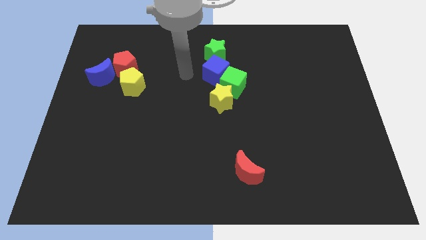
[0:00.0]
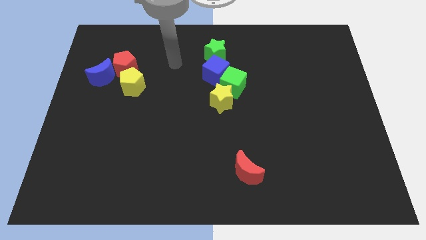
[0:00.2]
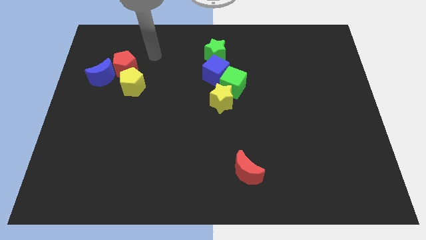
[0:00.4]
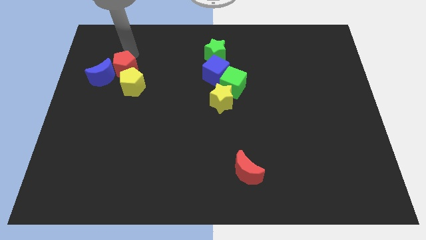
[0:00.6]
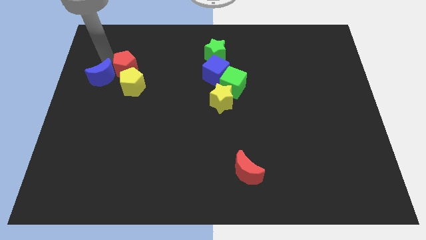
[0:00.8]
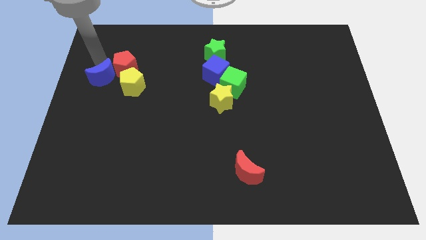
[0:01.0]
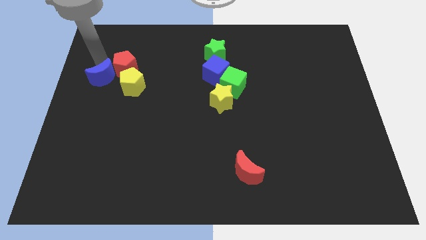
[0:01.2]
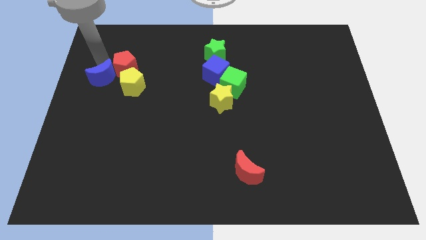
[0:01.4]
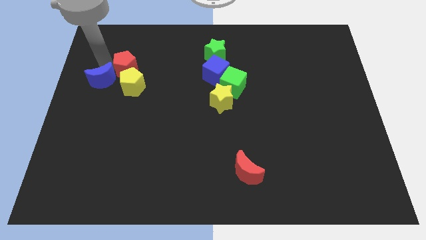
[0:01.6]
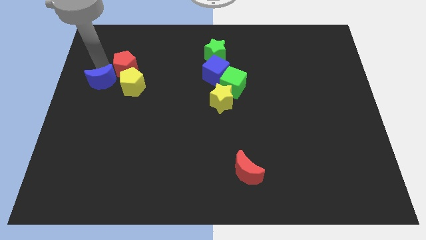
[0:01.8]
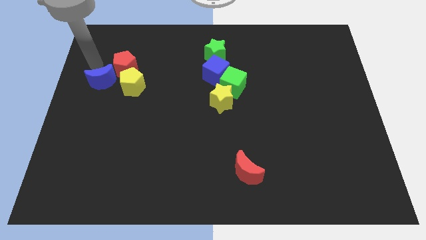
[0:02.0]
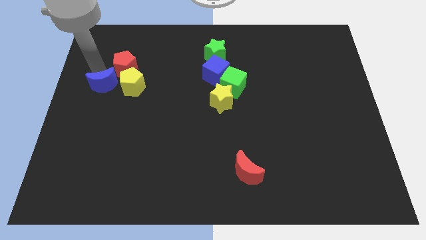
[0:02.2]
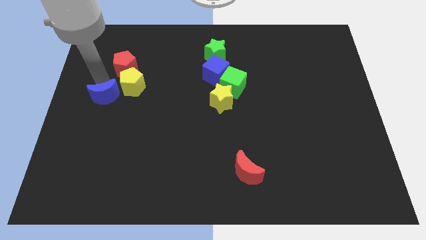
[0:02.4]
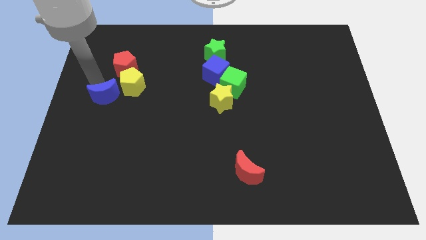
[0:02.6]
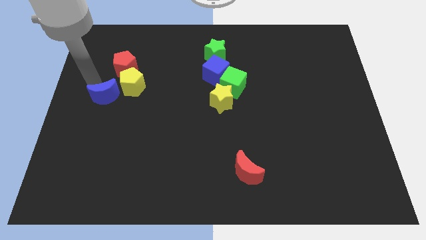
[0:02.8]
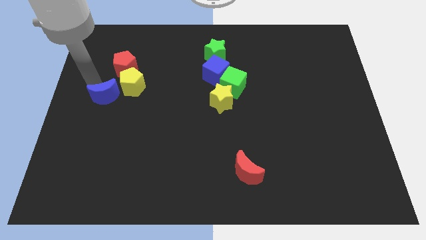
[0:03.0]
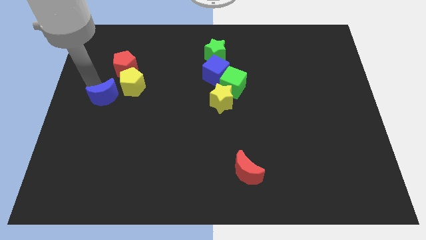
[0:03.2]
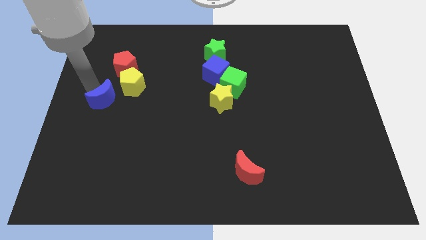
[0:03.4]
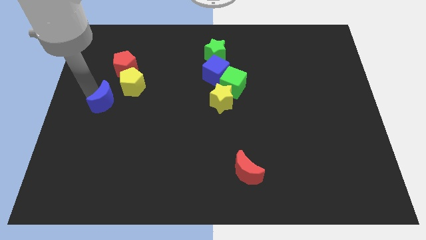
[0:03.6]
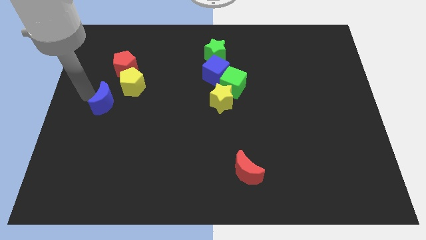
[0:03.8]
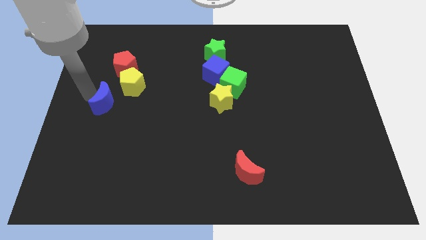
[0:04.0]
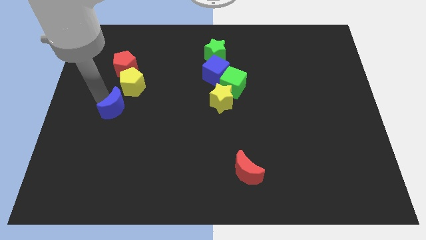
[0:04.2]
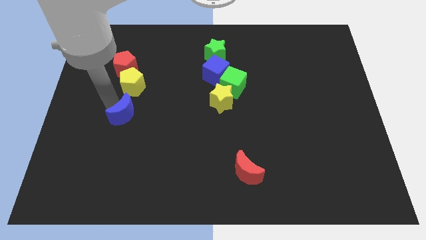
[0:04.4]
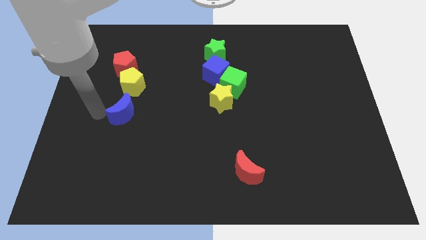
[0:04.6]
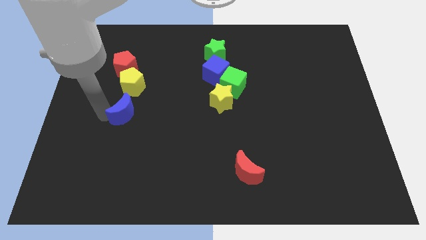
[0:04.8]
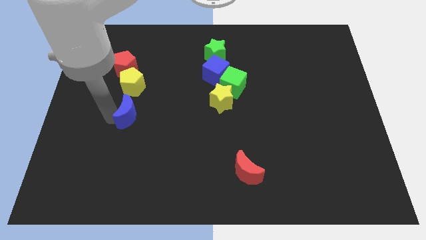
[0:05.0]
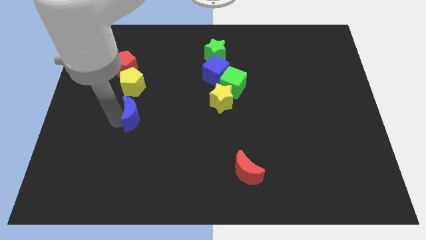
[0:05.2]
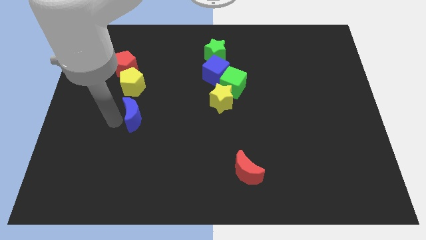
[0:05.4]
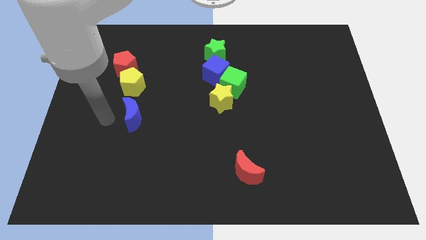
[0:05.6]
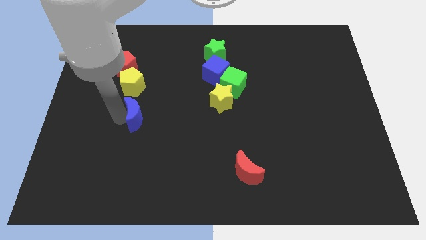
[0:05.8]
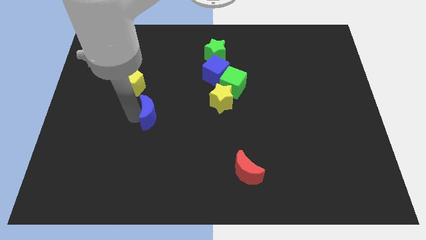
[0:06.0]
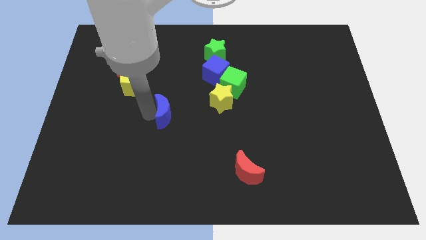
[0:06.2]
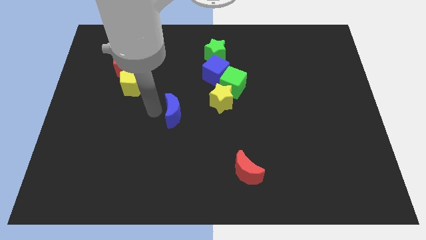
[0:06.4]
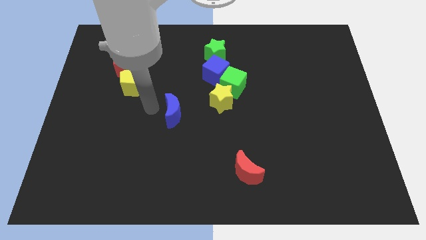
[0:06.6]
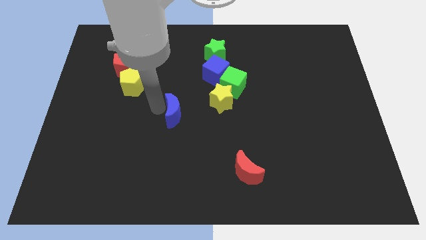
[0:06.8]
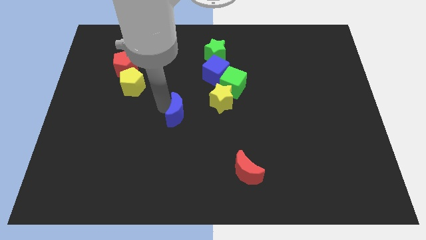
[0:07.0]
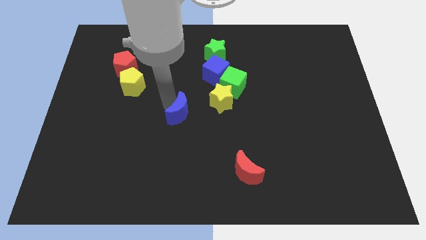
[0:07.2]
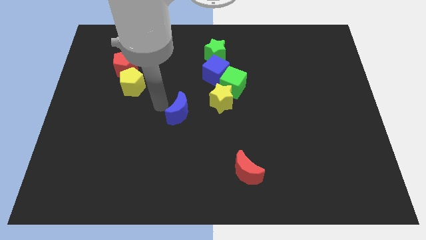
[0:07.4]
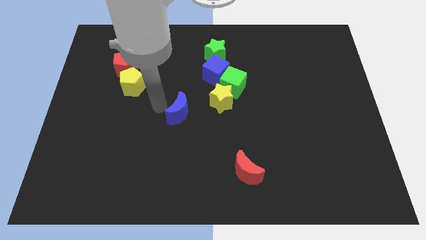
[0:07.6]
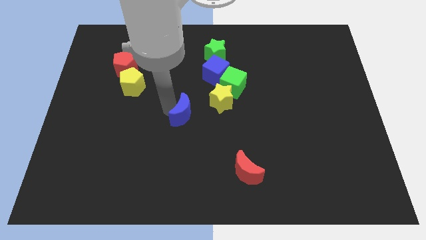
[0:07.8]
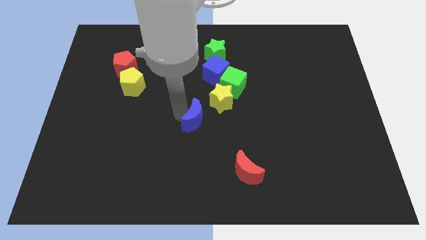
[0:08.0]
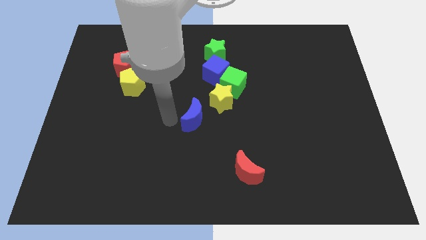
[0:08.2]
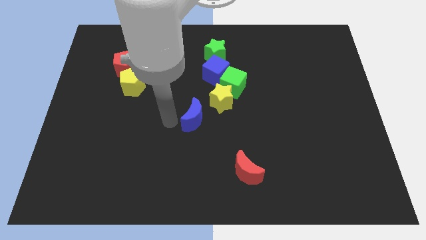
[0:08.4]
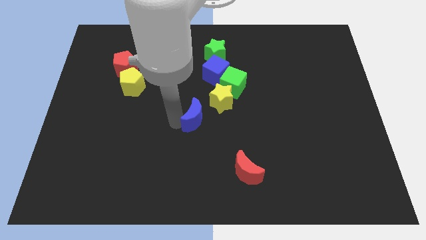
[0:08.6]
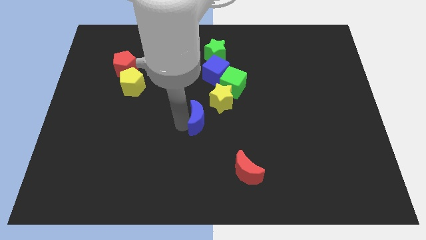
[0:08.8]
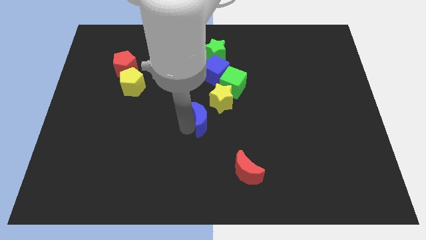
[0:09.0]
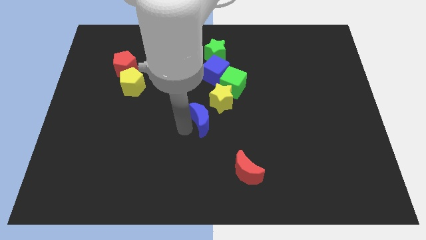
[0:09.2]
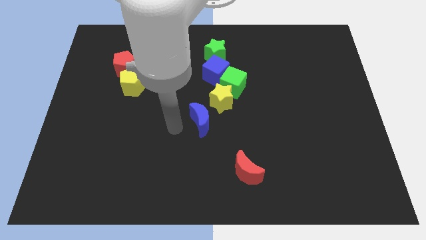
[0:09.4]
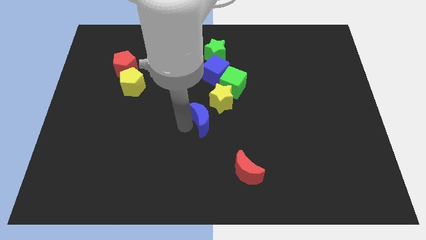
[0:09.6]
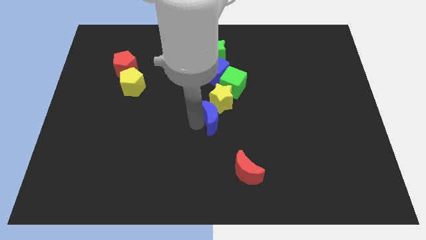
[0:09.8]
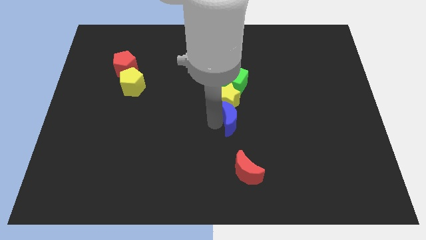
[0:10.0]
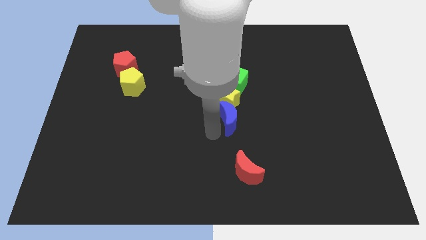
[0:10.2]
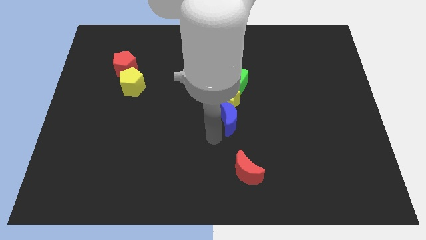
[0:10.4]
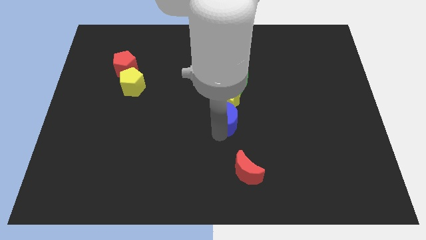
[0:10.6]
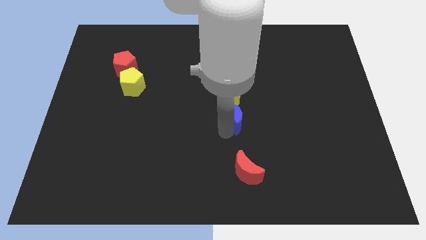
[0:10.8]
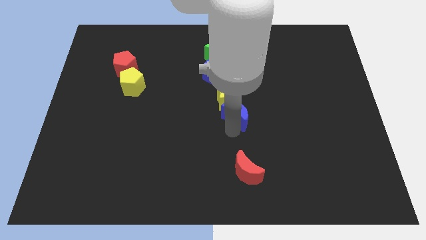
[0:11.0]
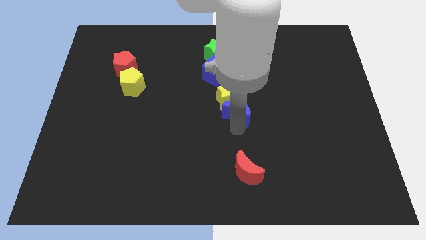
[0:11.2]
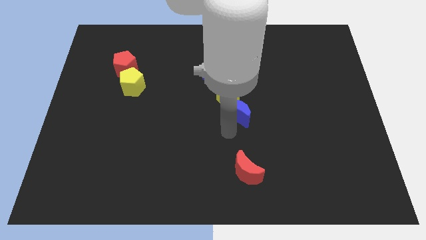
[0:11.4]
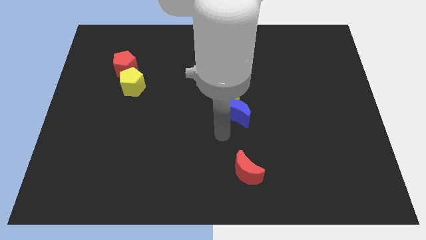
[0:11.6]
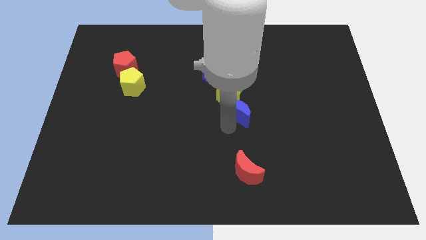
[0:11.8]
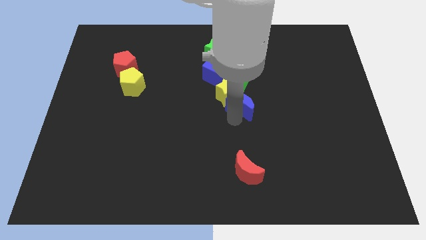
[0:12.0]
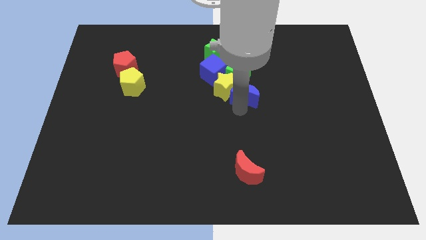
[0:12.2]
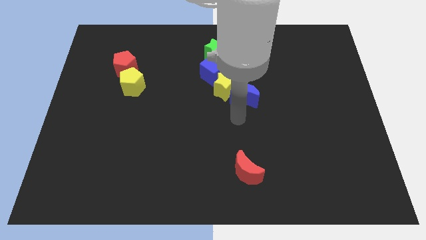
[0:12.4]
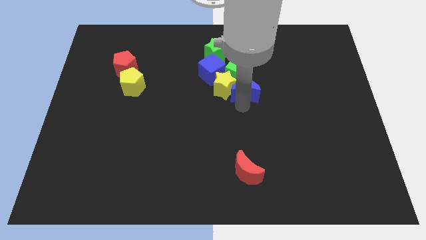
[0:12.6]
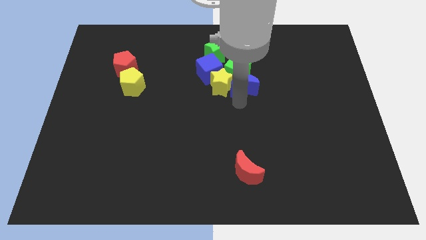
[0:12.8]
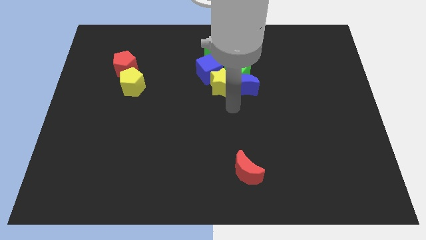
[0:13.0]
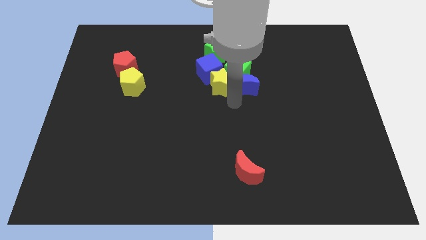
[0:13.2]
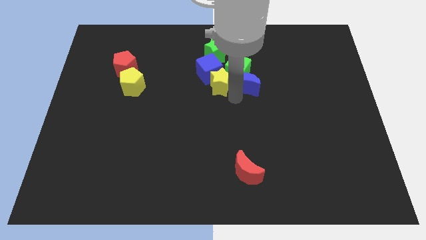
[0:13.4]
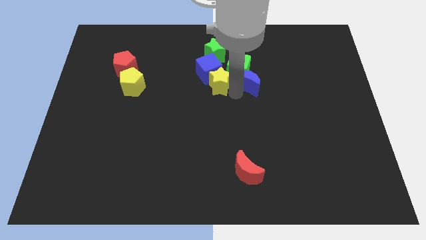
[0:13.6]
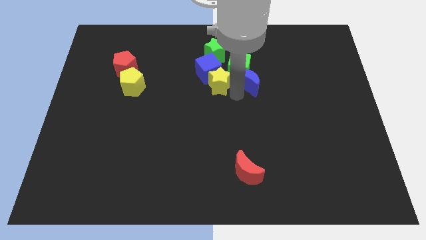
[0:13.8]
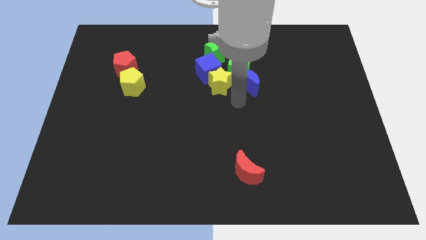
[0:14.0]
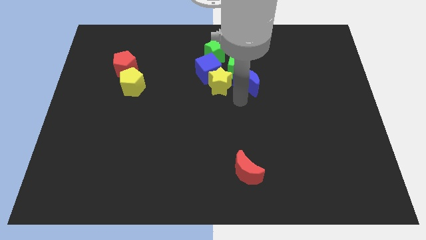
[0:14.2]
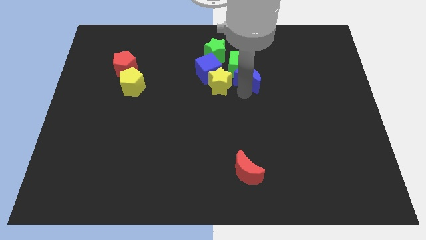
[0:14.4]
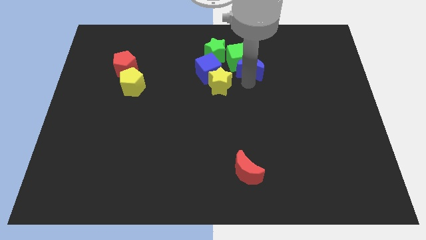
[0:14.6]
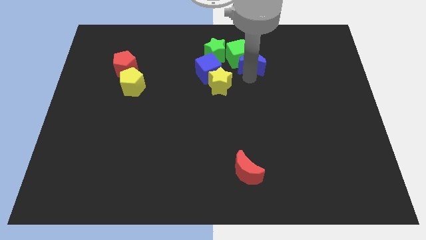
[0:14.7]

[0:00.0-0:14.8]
put the blue moon right of the green star

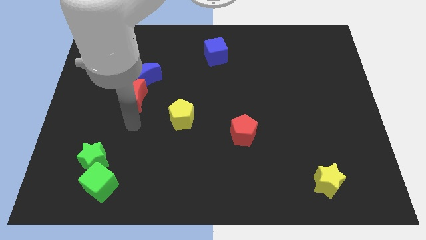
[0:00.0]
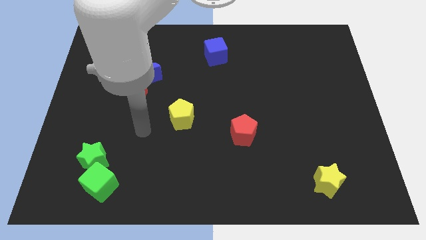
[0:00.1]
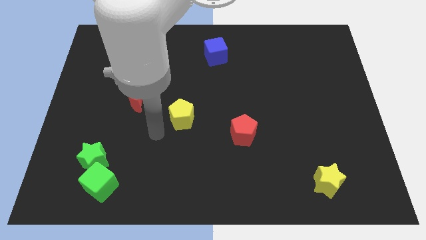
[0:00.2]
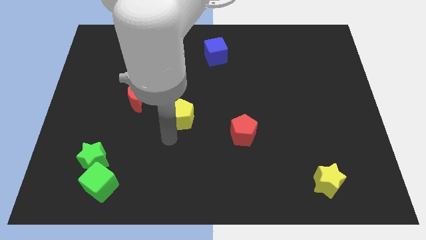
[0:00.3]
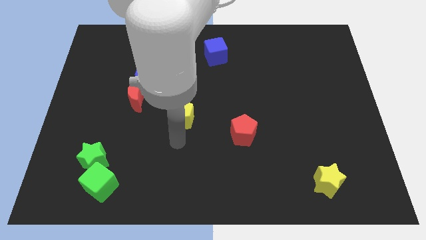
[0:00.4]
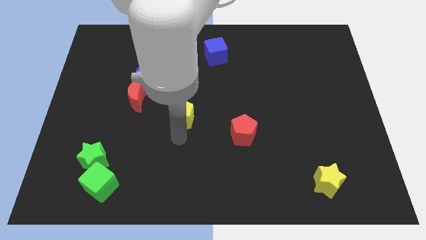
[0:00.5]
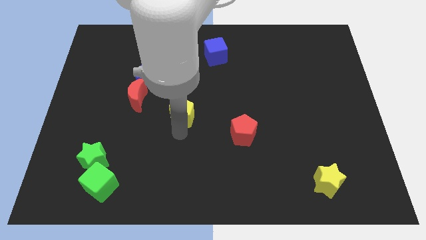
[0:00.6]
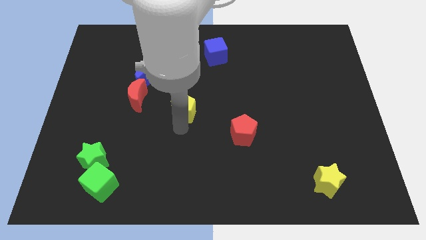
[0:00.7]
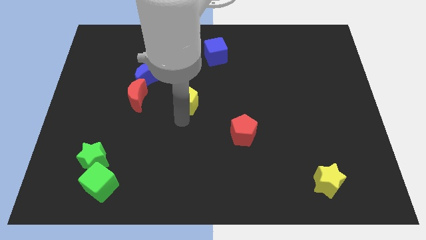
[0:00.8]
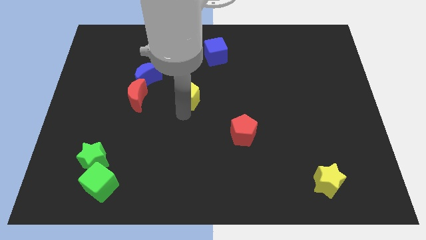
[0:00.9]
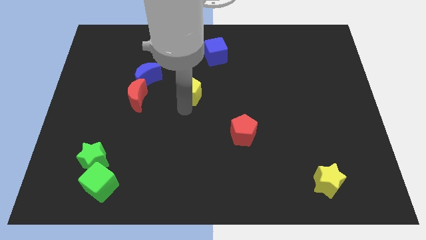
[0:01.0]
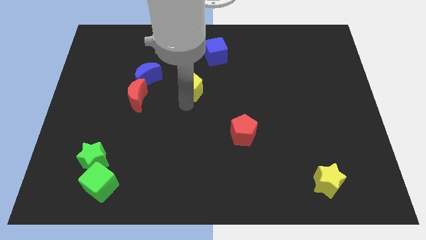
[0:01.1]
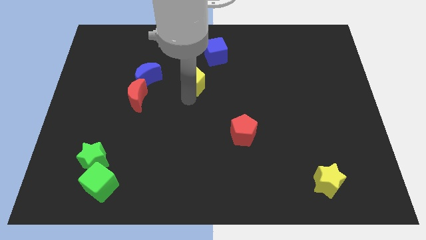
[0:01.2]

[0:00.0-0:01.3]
push the yellow pentagon diagonally down and to the left of the blue cube
